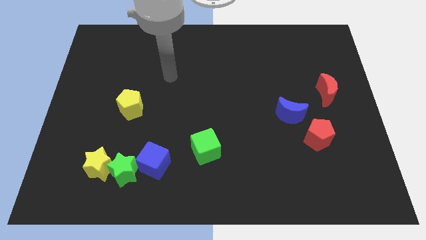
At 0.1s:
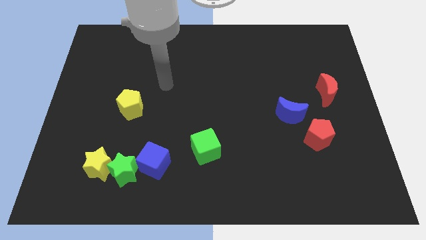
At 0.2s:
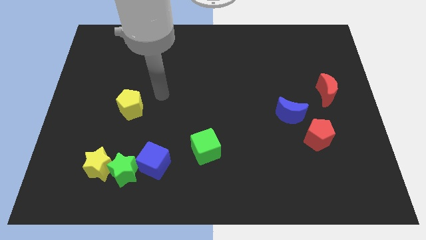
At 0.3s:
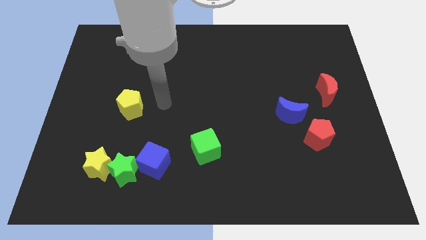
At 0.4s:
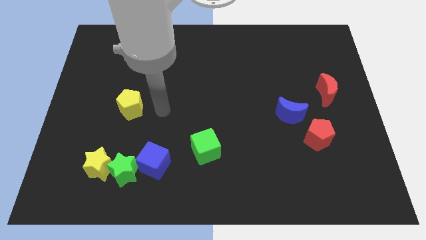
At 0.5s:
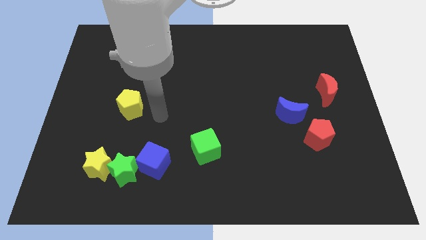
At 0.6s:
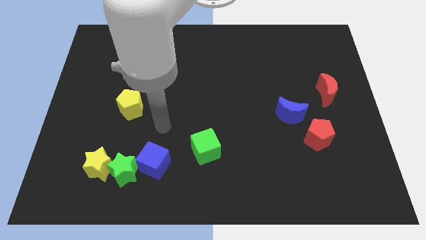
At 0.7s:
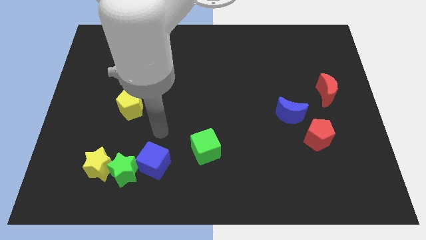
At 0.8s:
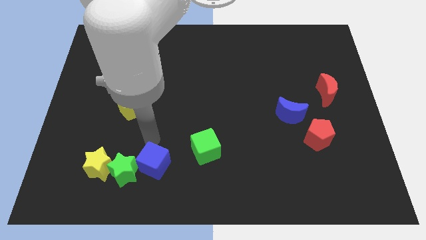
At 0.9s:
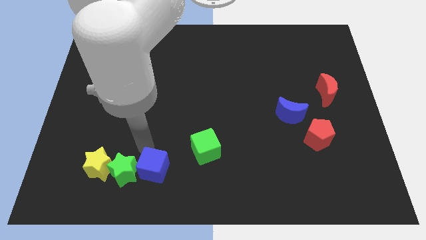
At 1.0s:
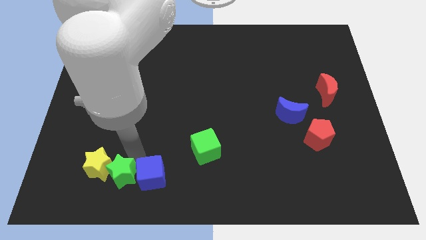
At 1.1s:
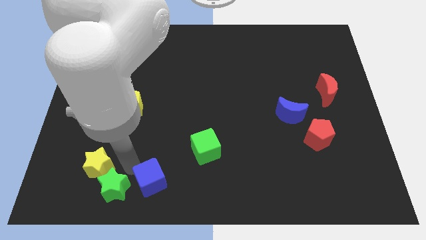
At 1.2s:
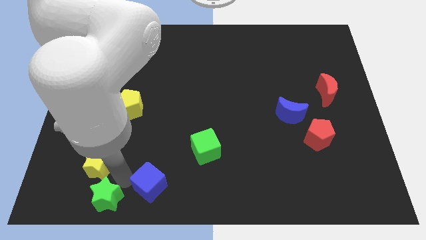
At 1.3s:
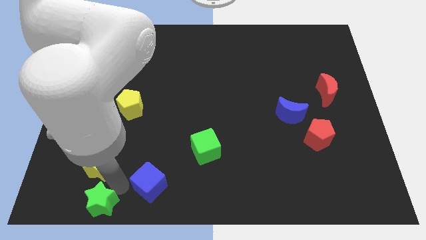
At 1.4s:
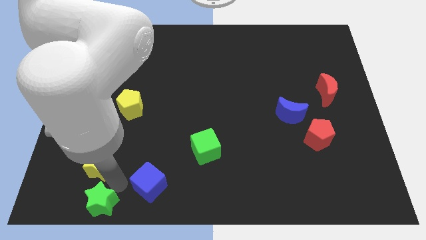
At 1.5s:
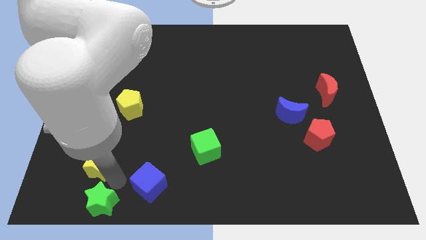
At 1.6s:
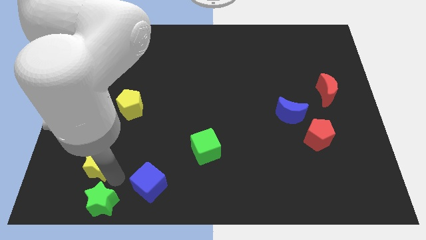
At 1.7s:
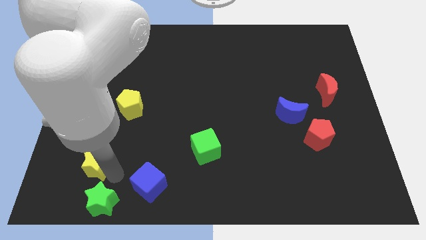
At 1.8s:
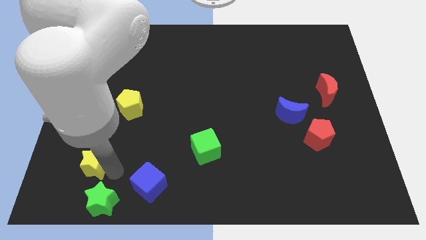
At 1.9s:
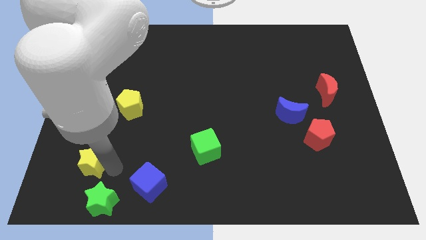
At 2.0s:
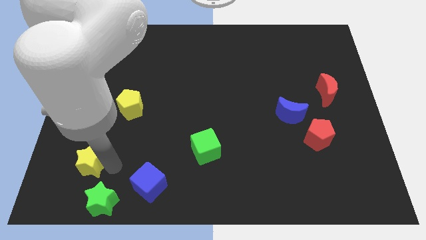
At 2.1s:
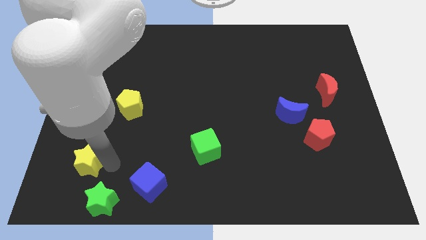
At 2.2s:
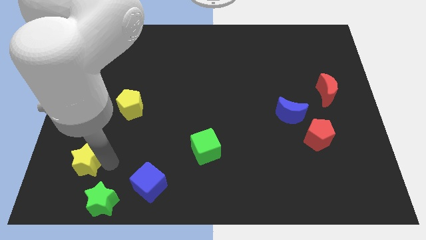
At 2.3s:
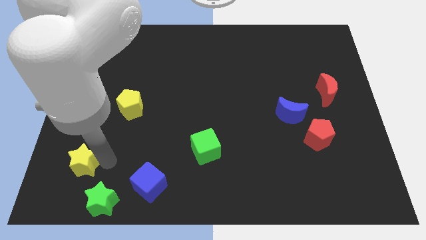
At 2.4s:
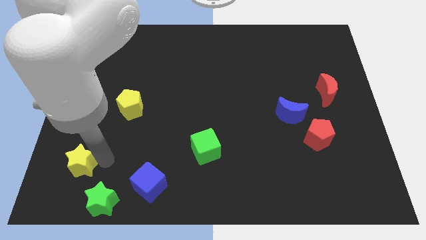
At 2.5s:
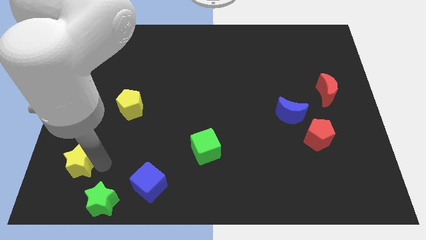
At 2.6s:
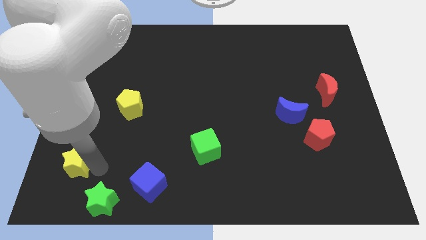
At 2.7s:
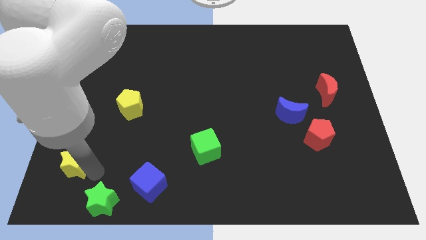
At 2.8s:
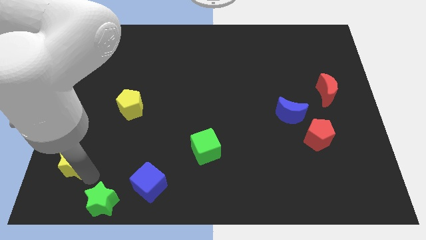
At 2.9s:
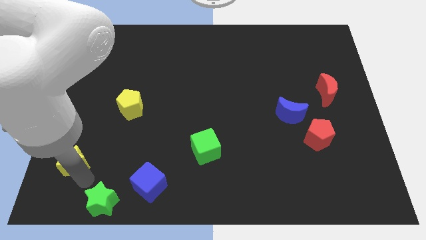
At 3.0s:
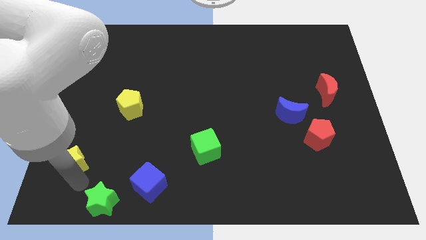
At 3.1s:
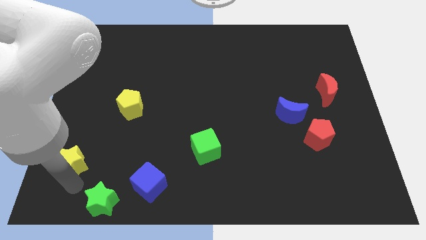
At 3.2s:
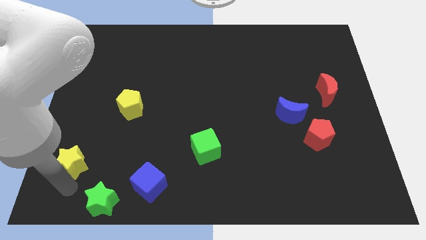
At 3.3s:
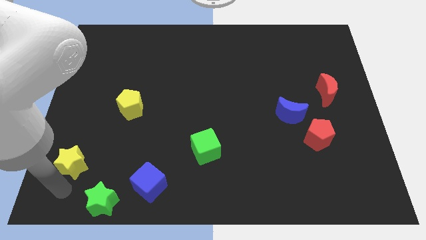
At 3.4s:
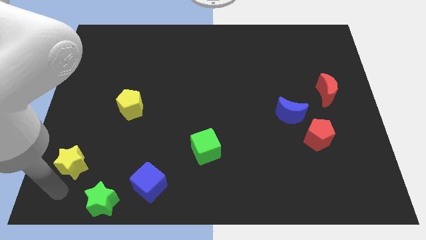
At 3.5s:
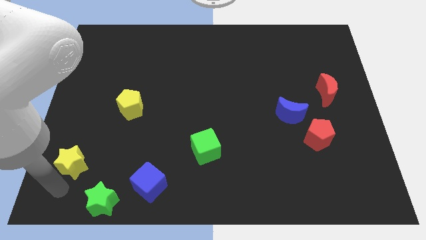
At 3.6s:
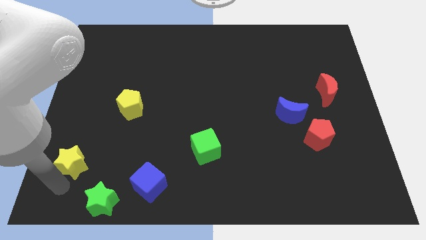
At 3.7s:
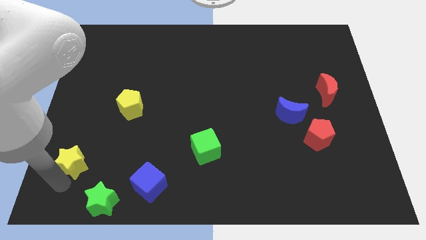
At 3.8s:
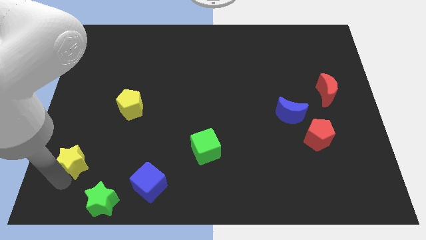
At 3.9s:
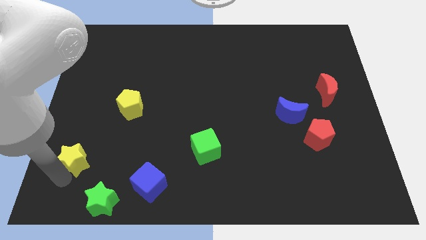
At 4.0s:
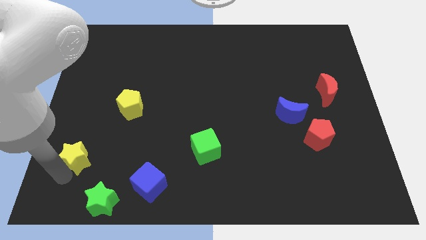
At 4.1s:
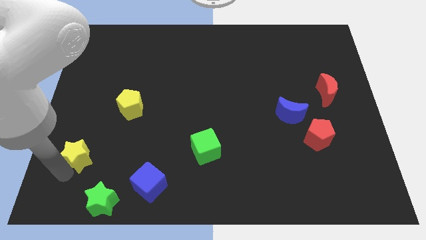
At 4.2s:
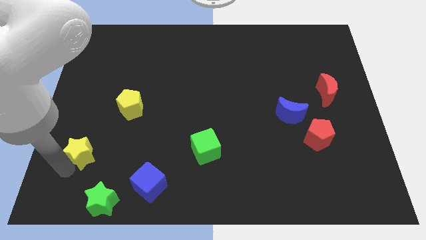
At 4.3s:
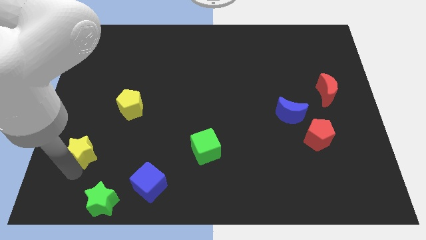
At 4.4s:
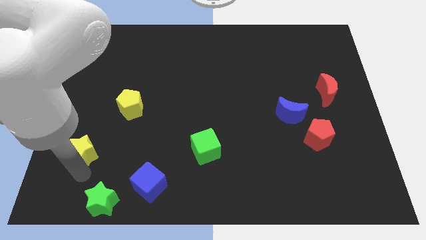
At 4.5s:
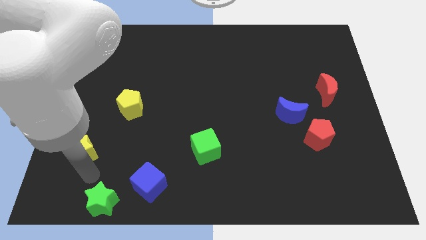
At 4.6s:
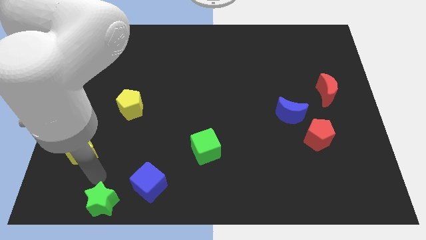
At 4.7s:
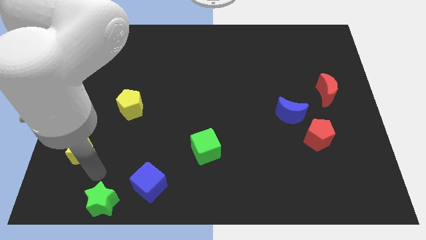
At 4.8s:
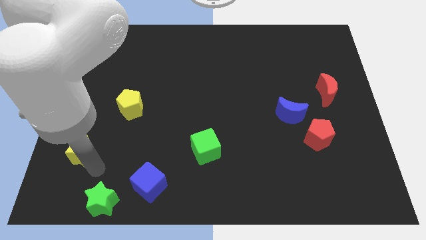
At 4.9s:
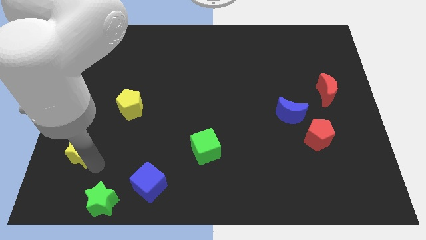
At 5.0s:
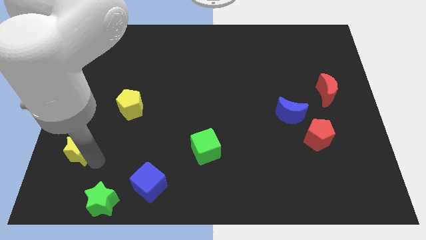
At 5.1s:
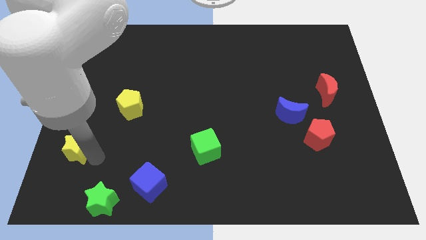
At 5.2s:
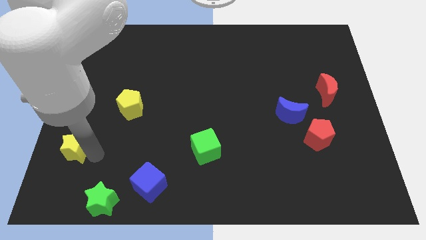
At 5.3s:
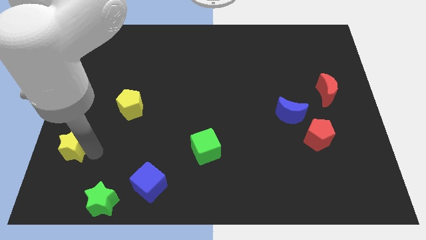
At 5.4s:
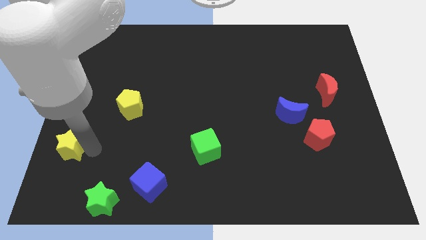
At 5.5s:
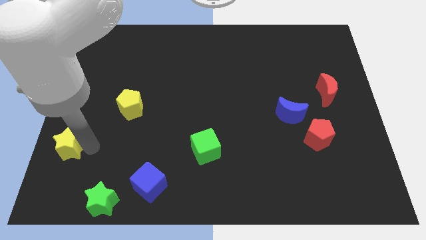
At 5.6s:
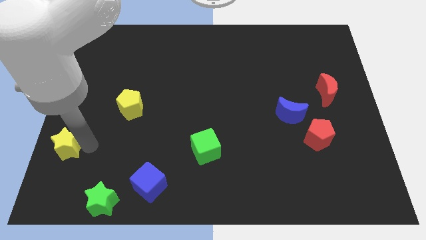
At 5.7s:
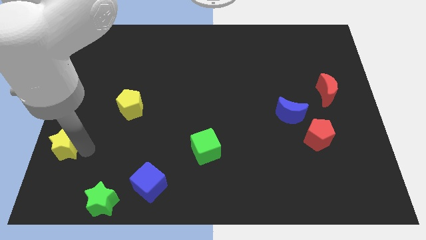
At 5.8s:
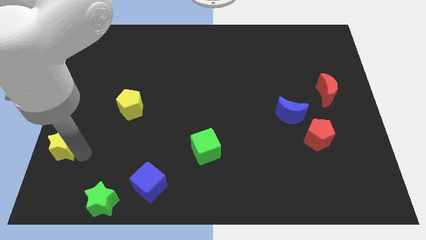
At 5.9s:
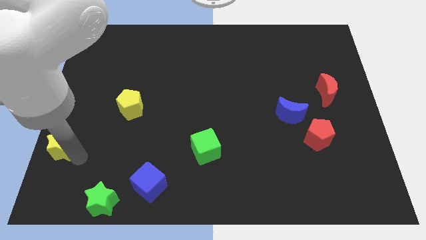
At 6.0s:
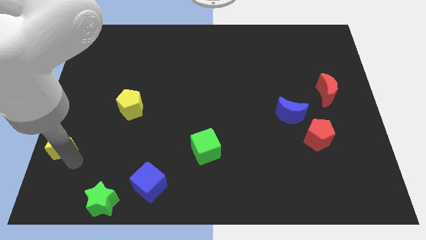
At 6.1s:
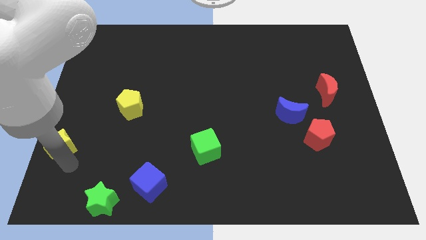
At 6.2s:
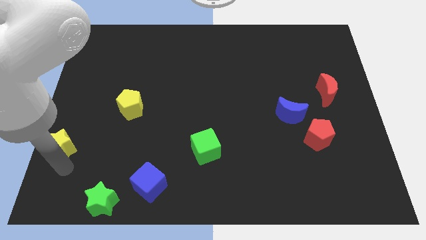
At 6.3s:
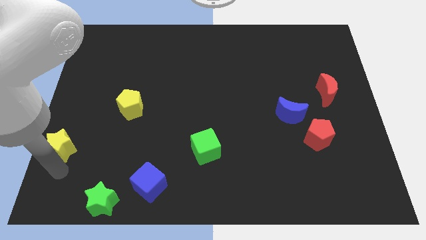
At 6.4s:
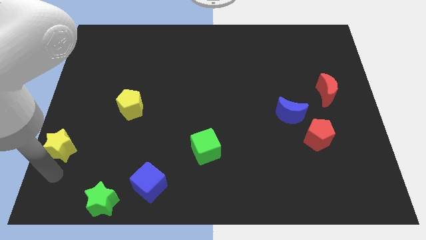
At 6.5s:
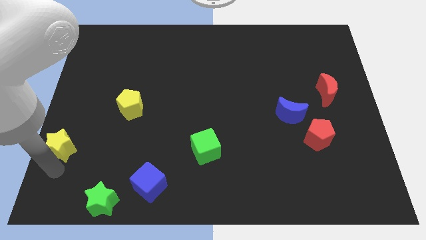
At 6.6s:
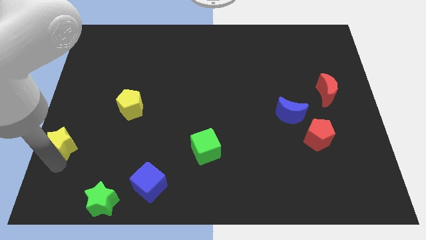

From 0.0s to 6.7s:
push the yellow star to the center left
